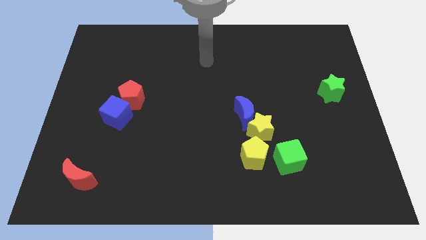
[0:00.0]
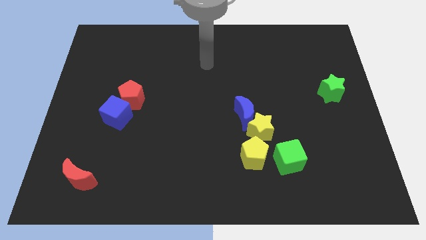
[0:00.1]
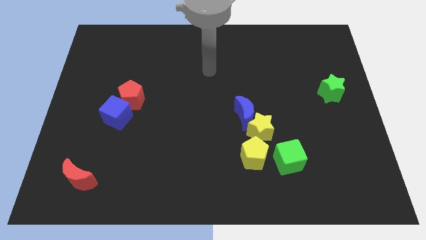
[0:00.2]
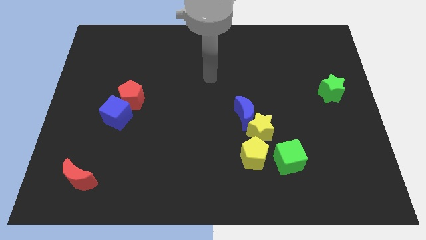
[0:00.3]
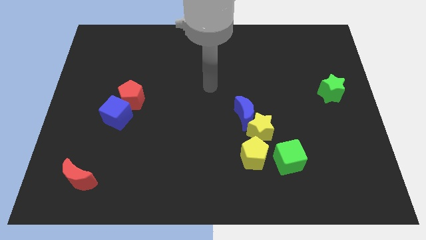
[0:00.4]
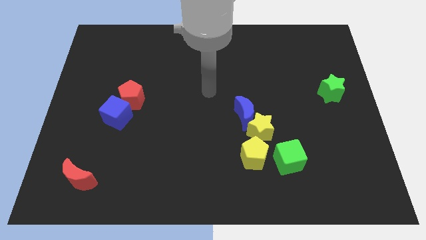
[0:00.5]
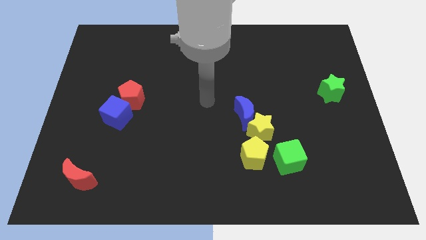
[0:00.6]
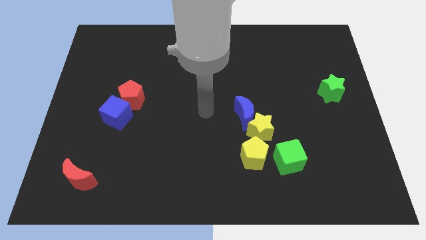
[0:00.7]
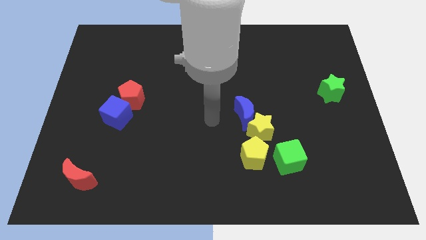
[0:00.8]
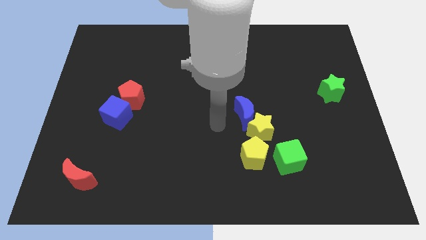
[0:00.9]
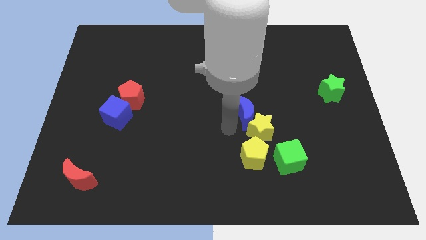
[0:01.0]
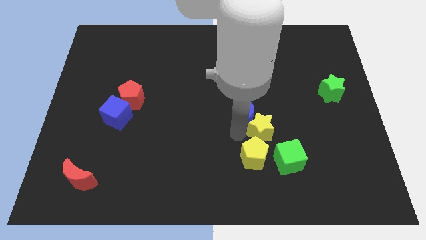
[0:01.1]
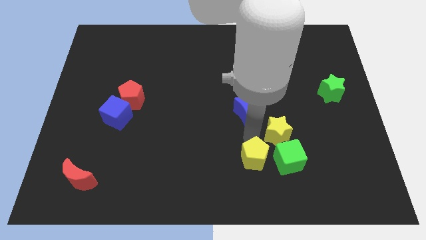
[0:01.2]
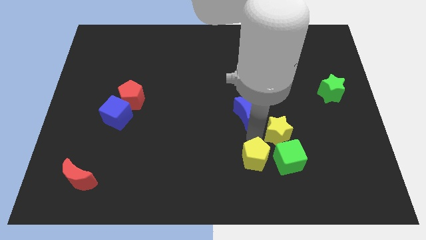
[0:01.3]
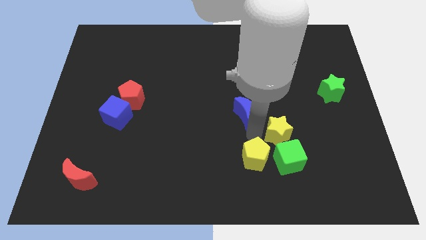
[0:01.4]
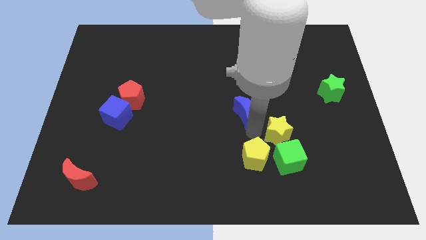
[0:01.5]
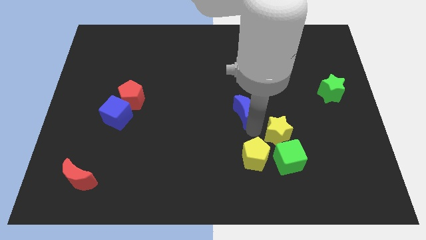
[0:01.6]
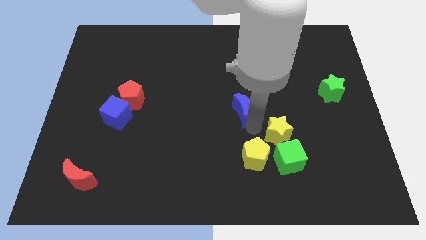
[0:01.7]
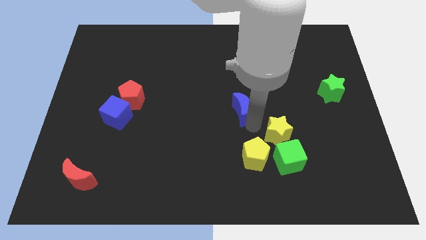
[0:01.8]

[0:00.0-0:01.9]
pull the blue moon apart from the yellow star

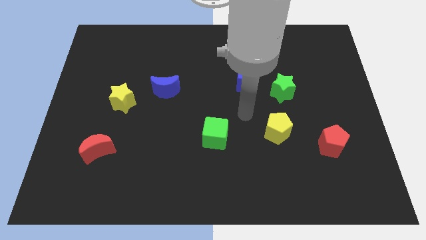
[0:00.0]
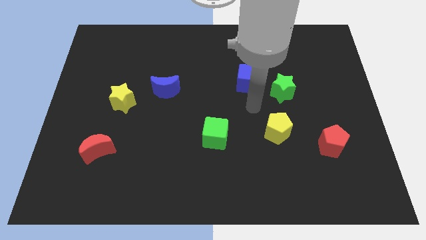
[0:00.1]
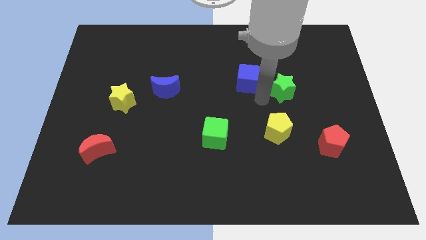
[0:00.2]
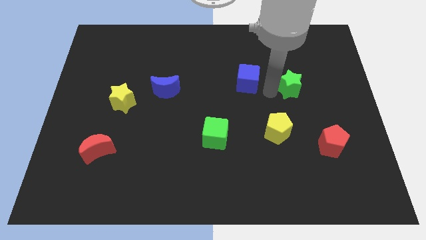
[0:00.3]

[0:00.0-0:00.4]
pull the blue cube apart from the green star

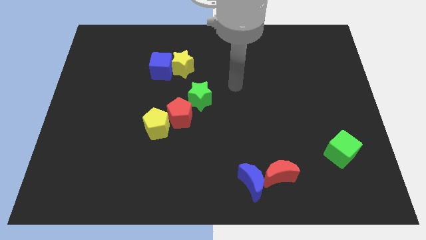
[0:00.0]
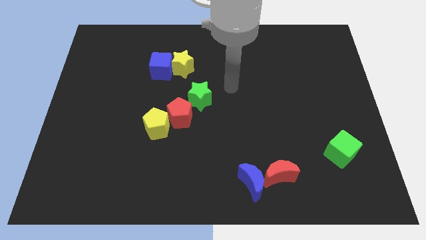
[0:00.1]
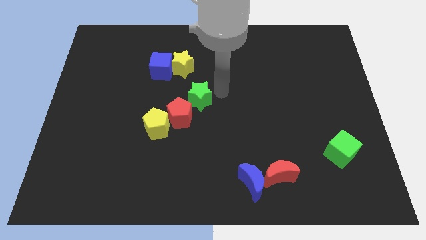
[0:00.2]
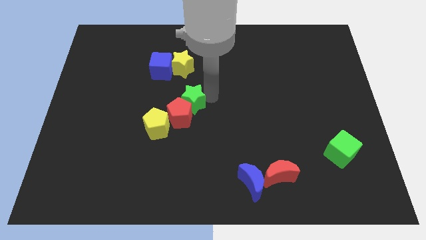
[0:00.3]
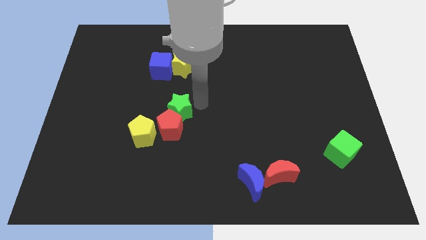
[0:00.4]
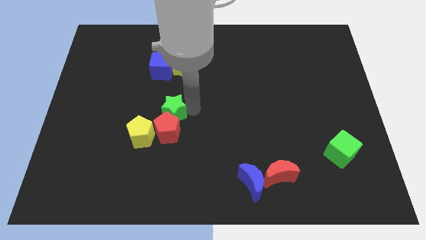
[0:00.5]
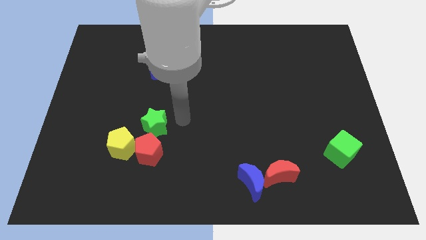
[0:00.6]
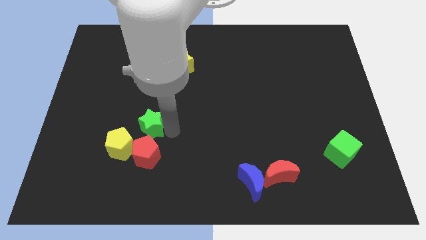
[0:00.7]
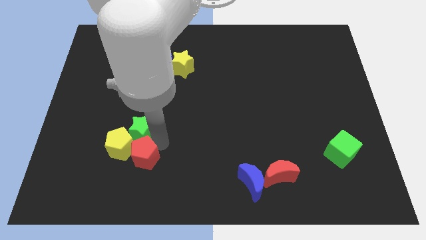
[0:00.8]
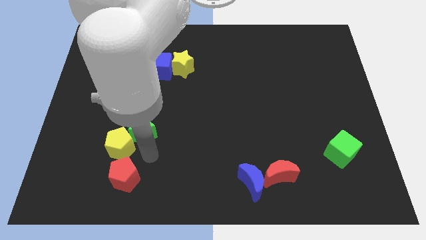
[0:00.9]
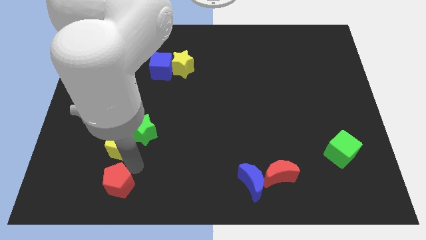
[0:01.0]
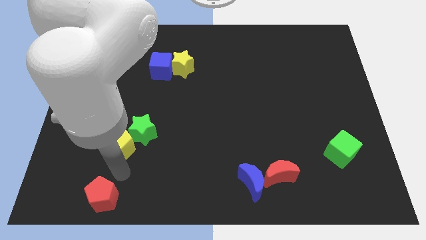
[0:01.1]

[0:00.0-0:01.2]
separate the yellow pentagon from the red pentagon

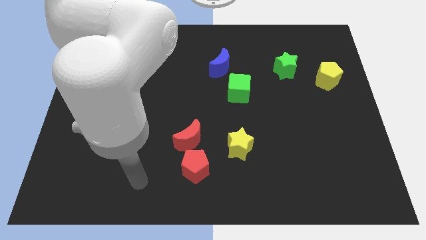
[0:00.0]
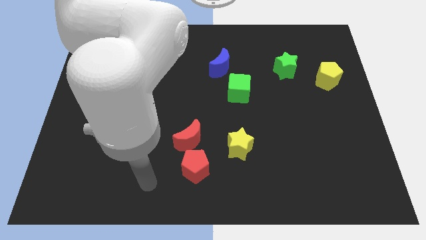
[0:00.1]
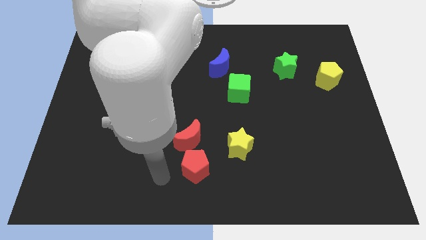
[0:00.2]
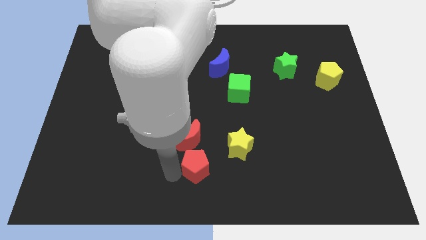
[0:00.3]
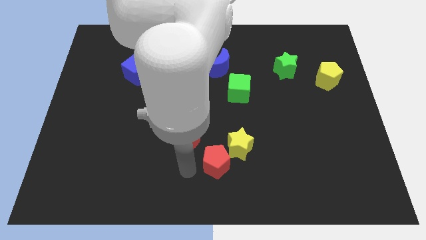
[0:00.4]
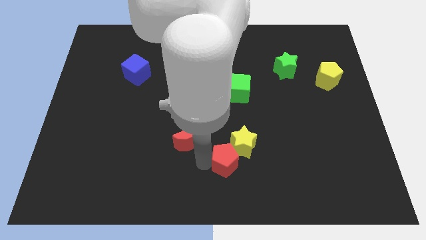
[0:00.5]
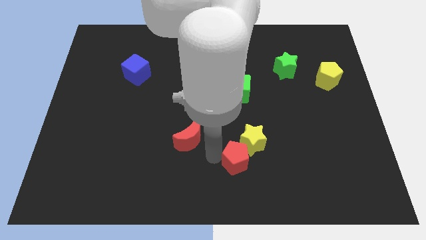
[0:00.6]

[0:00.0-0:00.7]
move the red moon away from the red pentagon

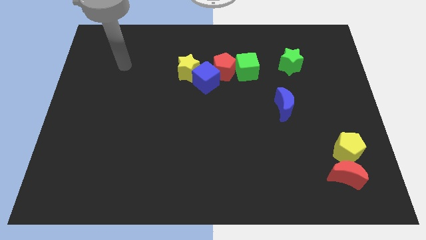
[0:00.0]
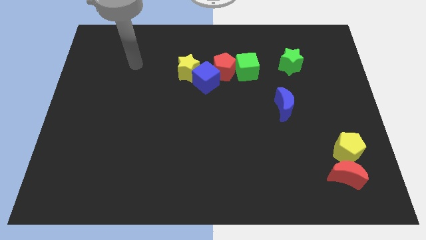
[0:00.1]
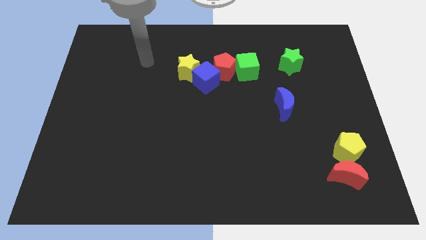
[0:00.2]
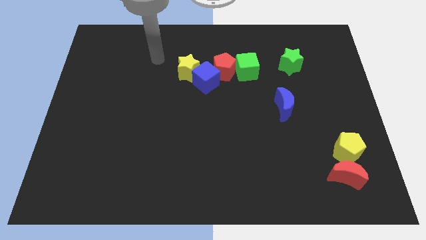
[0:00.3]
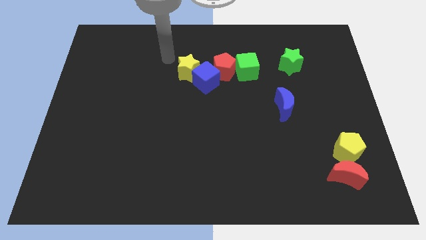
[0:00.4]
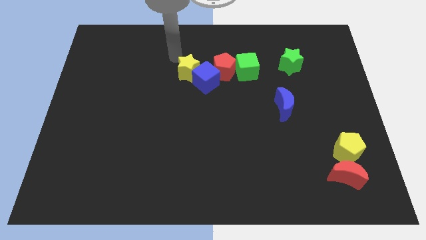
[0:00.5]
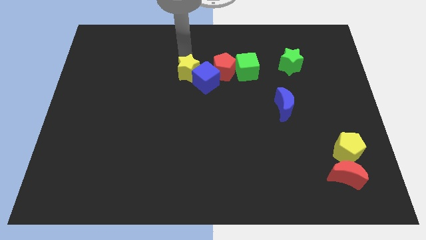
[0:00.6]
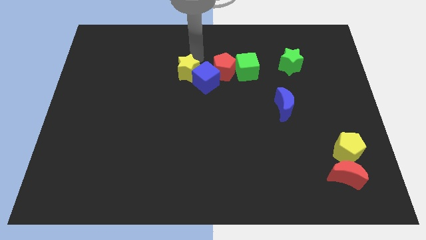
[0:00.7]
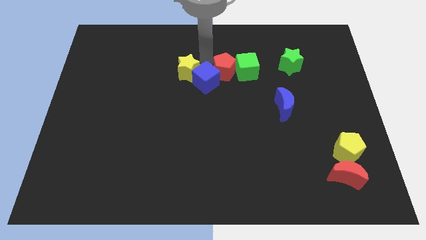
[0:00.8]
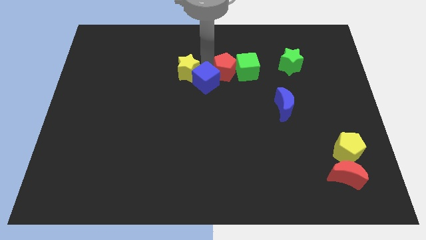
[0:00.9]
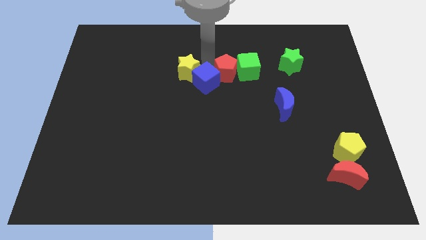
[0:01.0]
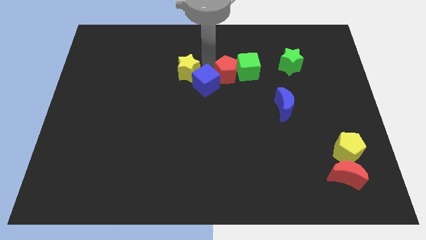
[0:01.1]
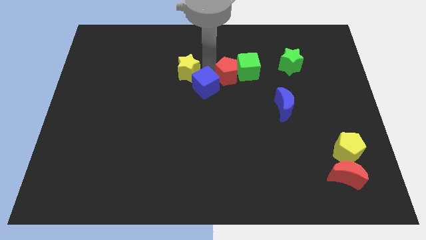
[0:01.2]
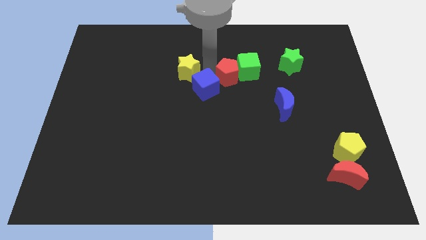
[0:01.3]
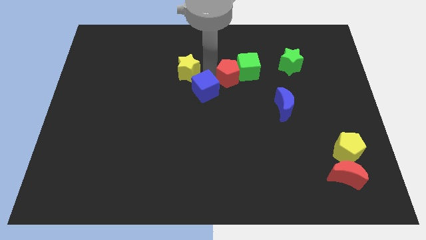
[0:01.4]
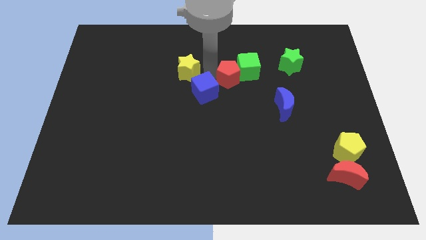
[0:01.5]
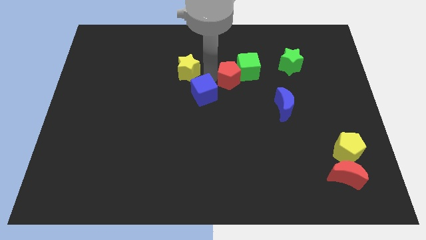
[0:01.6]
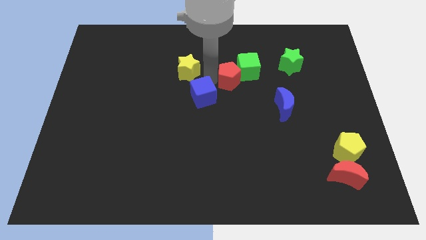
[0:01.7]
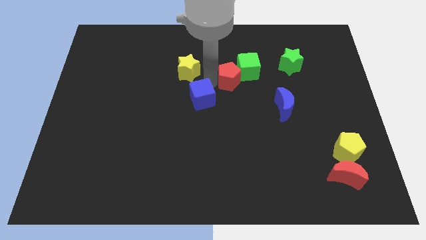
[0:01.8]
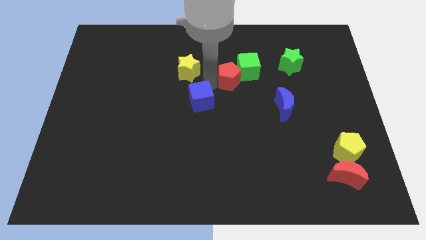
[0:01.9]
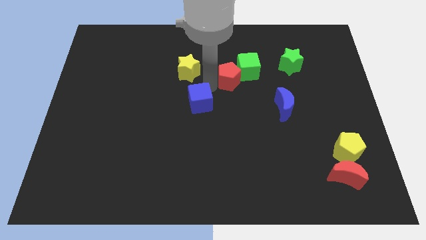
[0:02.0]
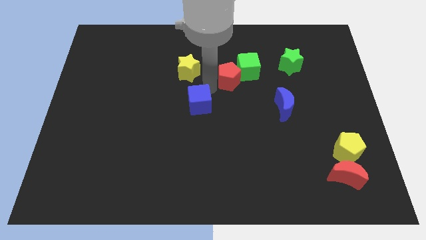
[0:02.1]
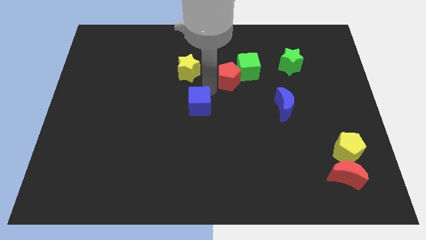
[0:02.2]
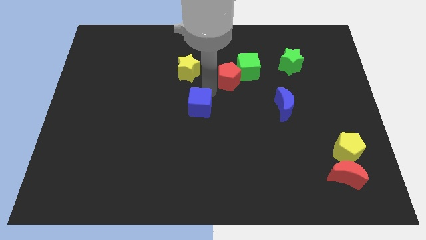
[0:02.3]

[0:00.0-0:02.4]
move the blue cube away from the yellow star and red pentagon

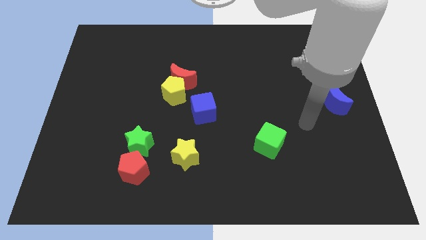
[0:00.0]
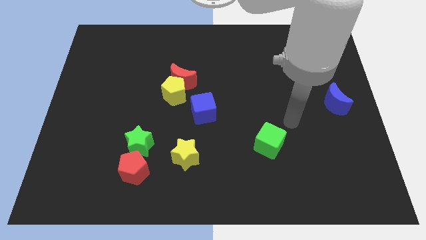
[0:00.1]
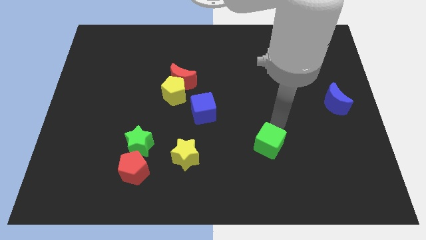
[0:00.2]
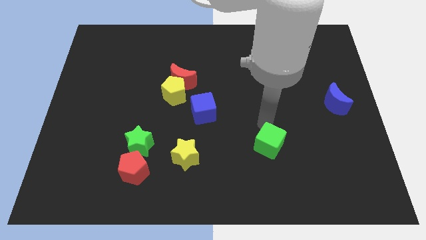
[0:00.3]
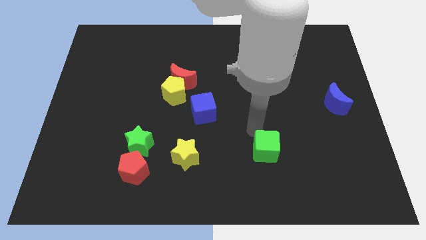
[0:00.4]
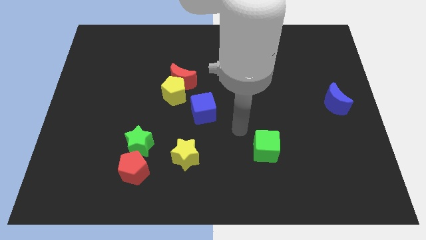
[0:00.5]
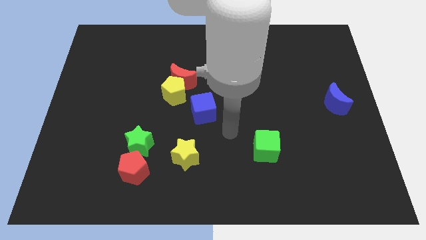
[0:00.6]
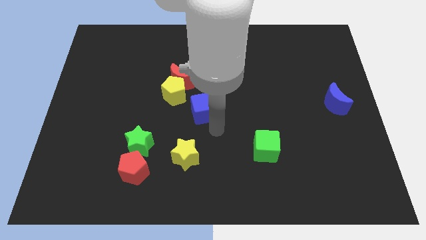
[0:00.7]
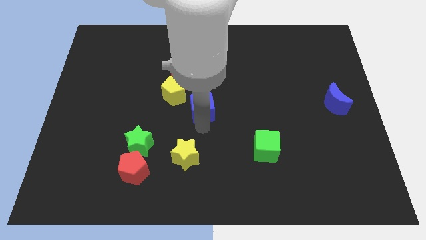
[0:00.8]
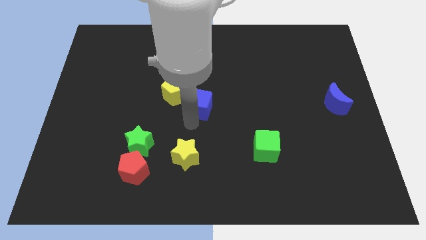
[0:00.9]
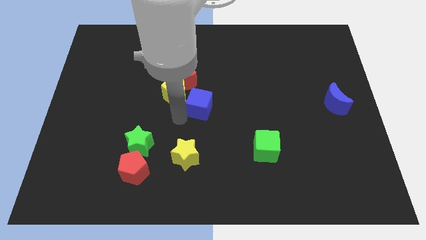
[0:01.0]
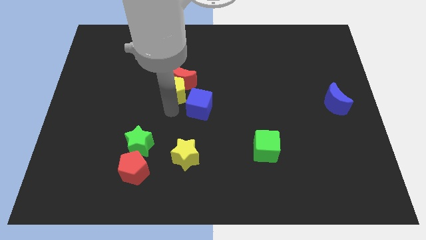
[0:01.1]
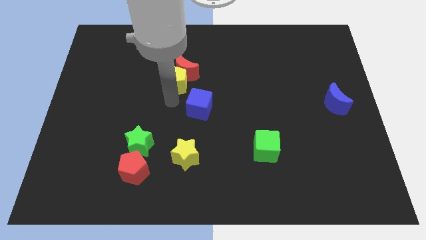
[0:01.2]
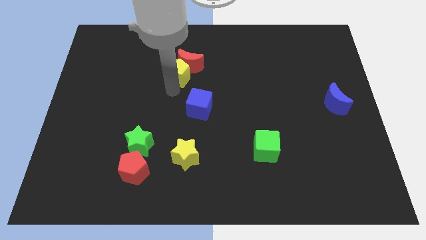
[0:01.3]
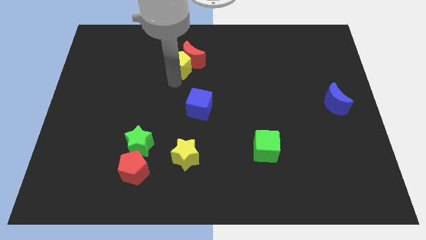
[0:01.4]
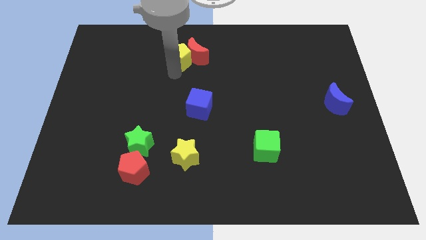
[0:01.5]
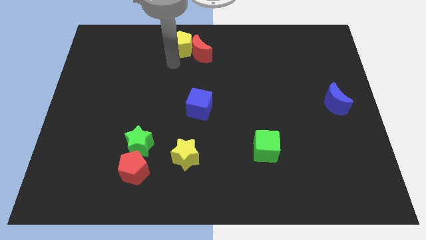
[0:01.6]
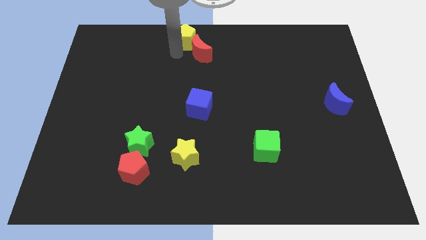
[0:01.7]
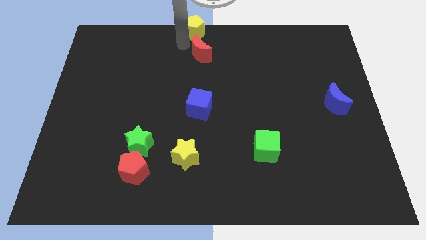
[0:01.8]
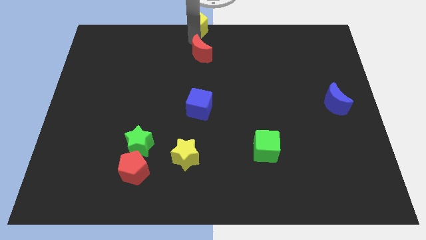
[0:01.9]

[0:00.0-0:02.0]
pull the red moon apart from the yellow pentagon

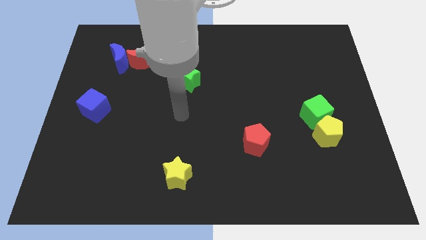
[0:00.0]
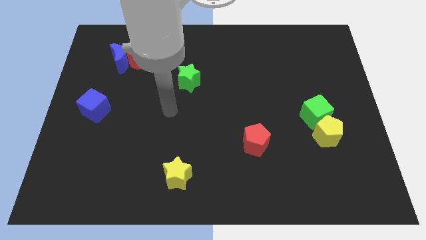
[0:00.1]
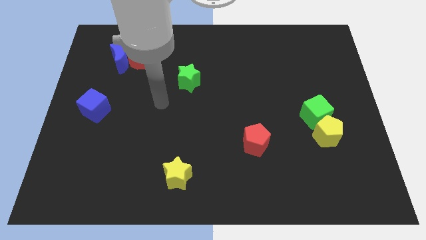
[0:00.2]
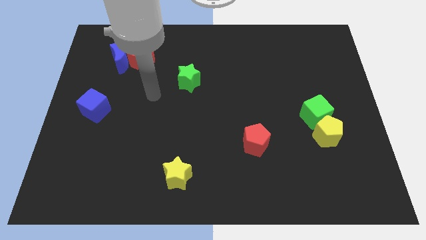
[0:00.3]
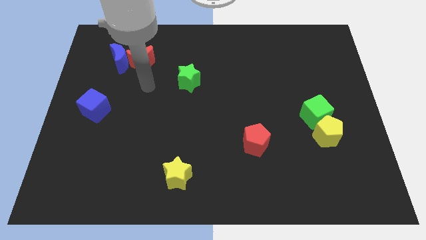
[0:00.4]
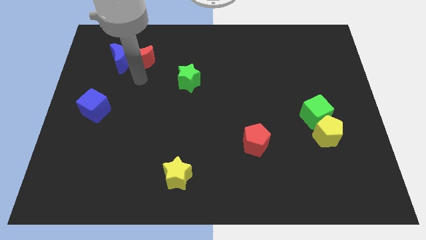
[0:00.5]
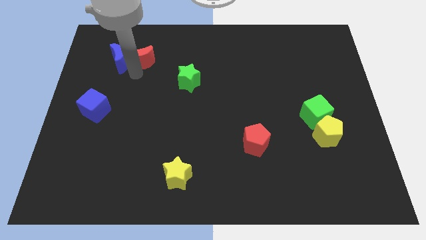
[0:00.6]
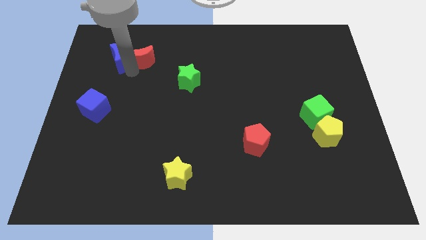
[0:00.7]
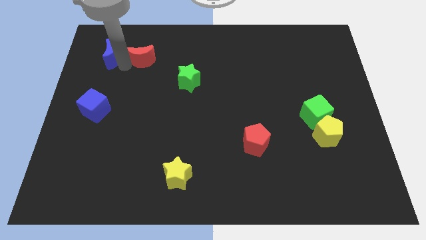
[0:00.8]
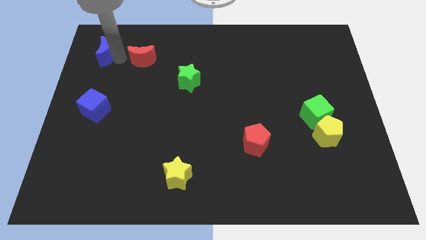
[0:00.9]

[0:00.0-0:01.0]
separate the red moon from the blue moon
